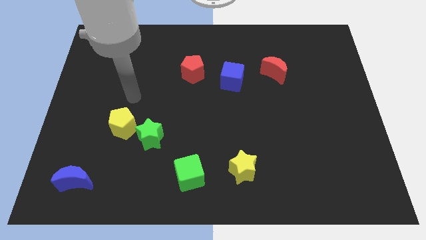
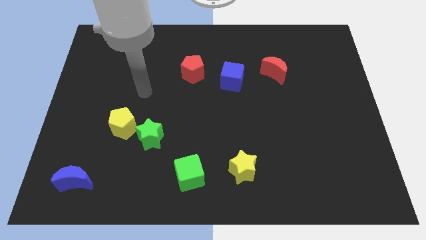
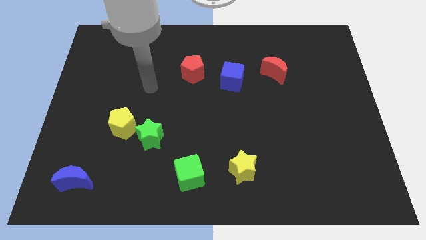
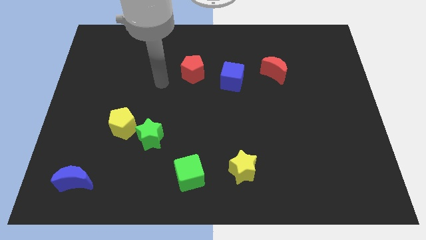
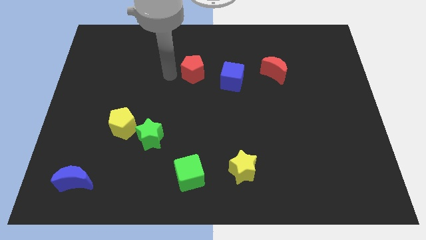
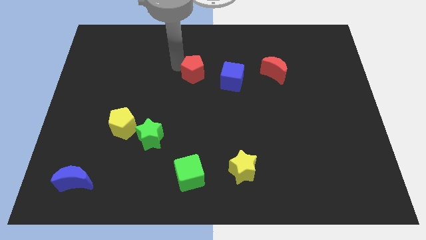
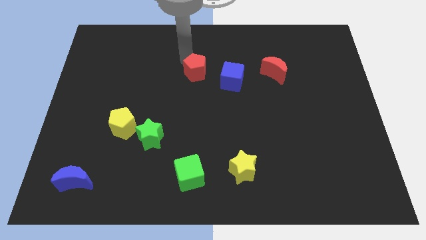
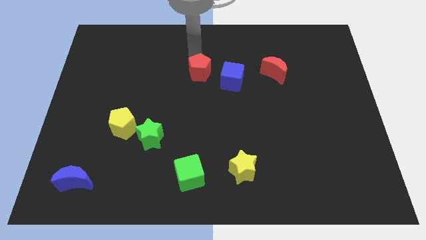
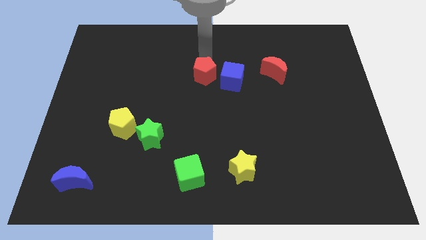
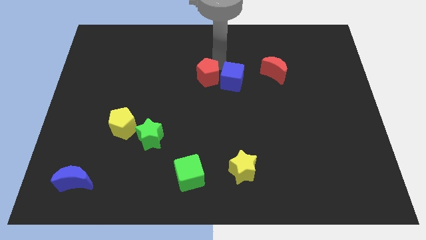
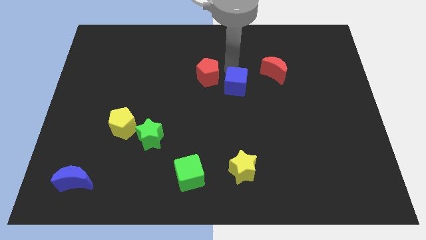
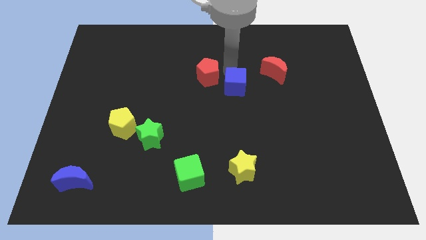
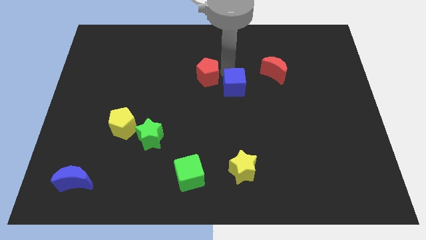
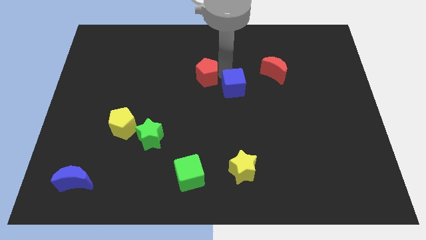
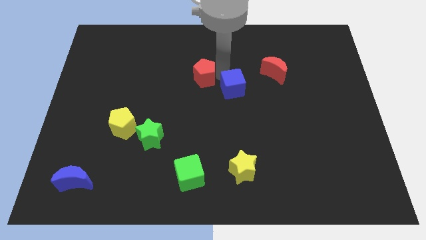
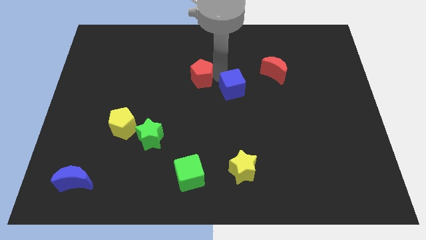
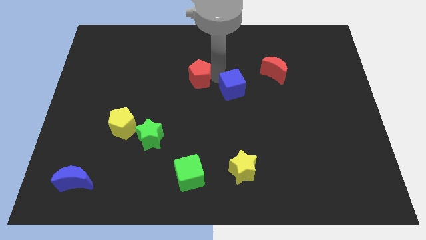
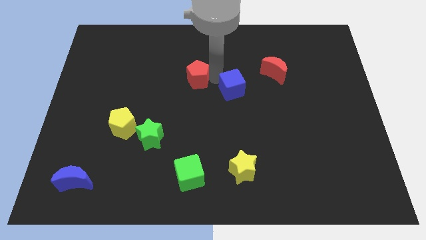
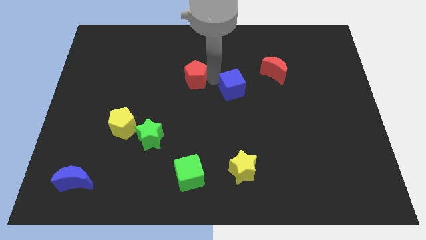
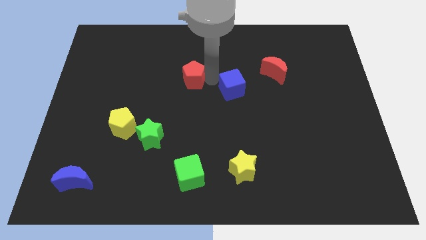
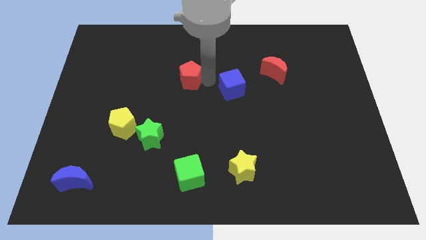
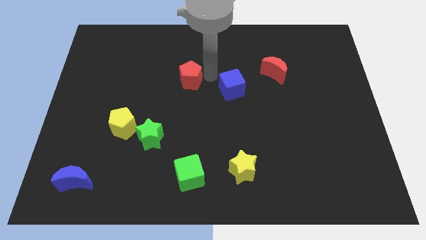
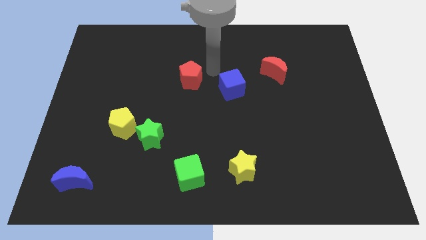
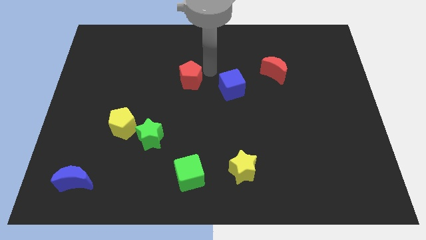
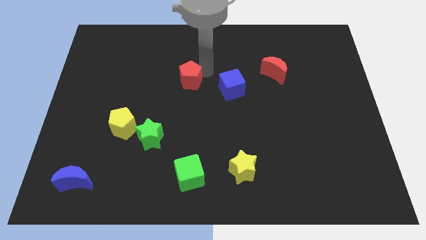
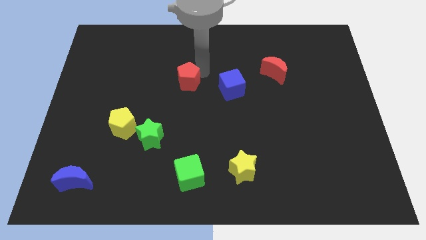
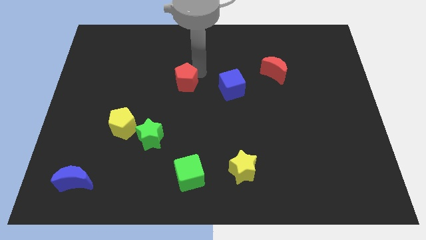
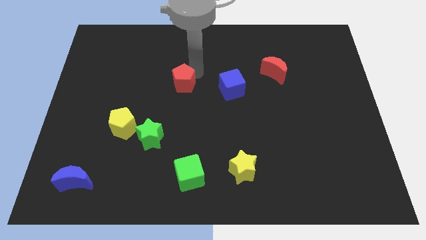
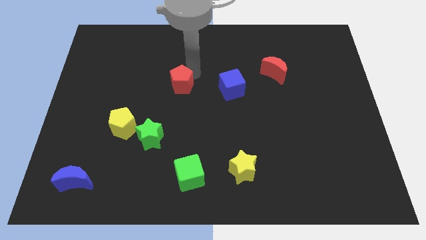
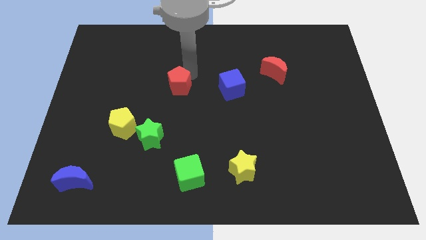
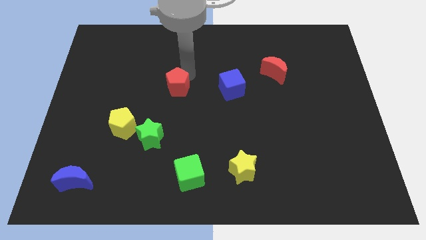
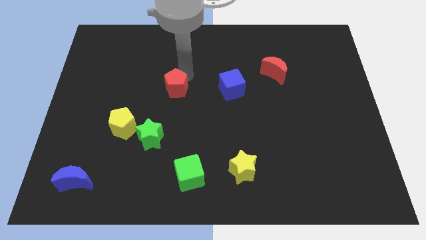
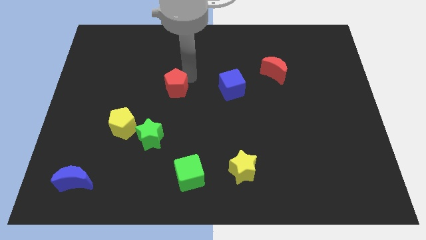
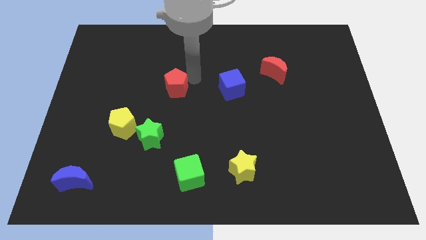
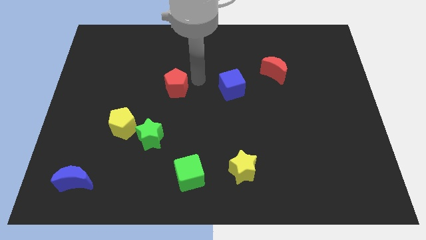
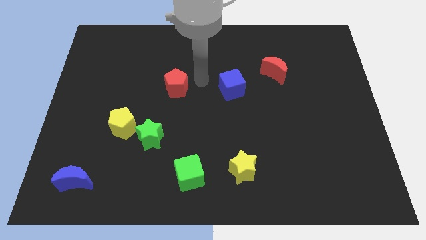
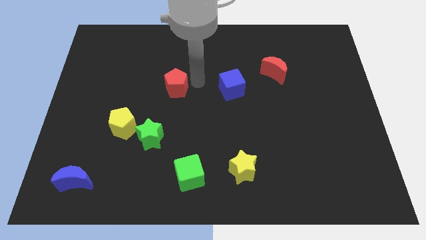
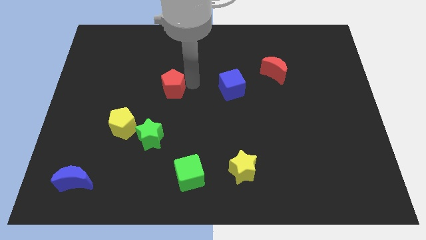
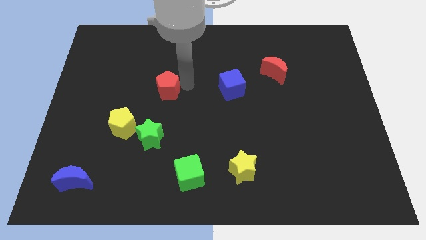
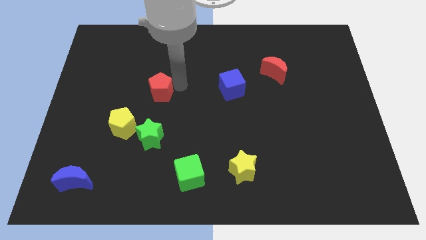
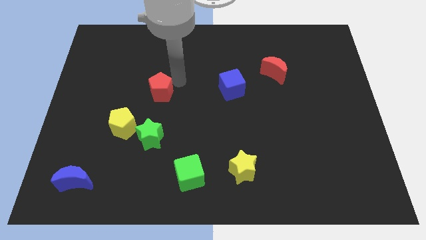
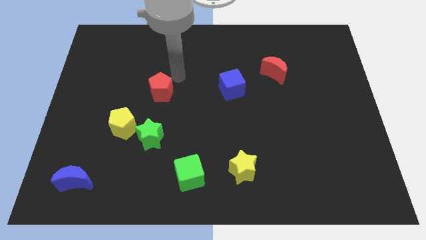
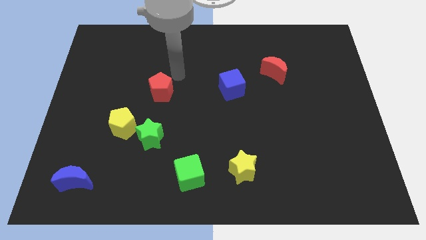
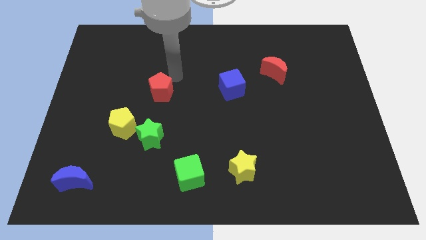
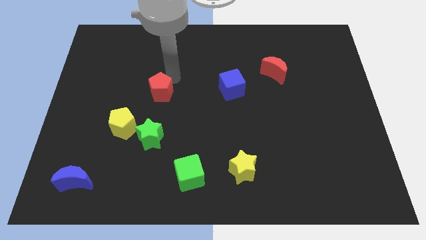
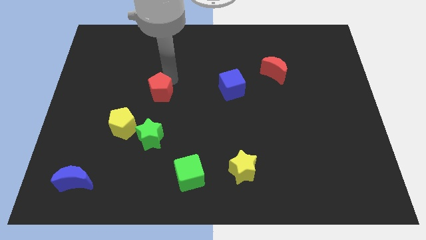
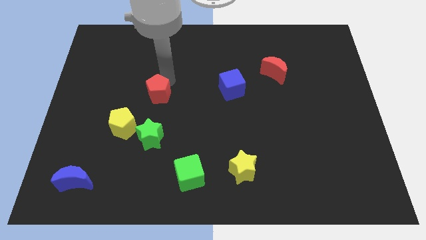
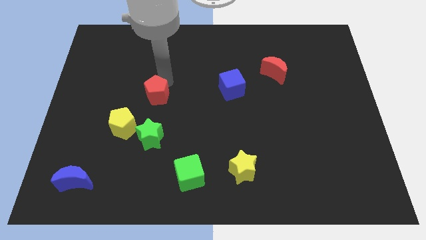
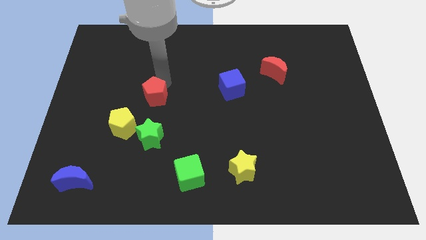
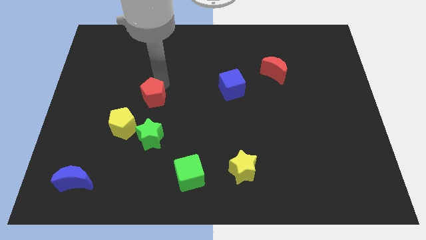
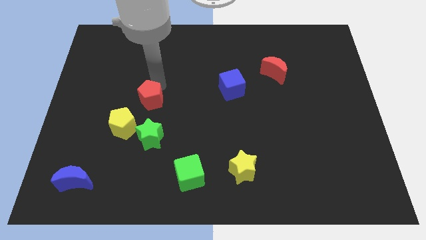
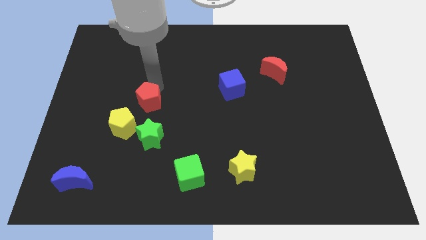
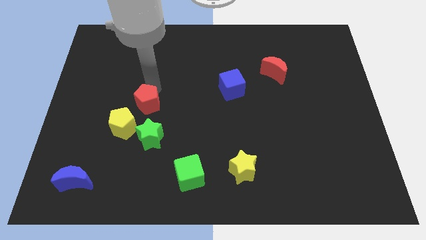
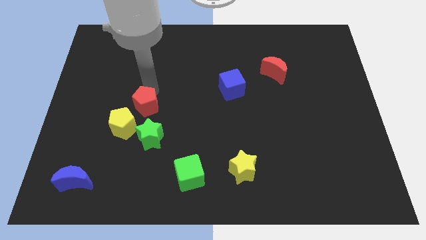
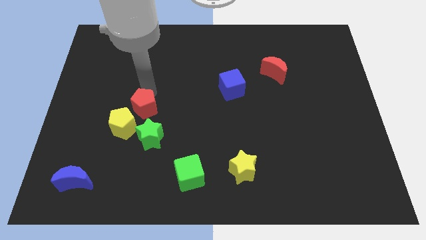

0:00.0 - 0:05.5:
put the red pentagon diagonally up and to the left of the green star
